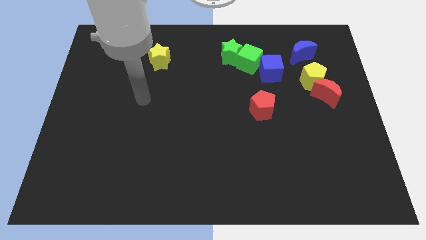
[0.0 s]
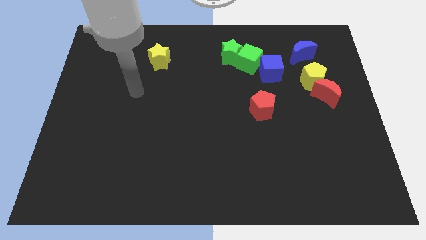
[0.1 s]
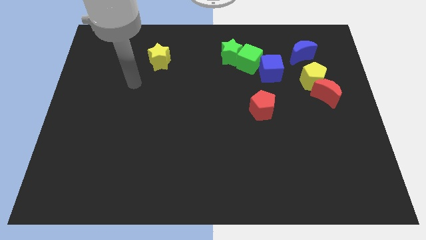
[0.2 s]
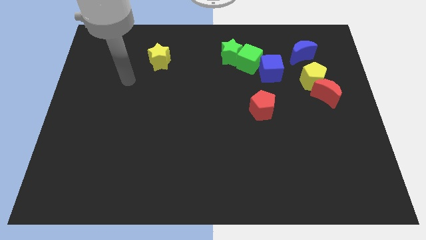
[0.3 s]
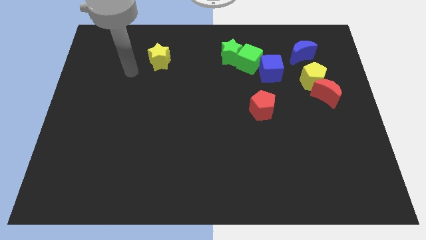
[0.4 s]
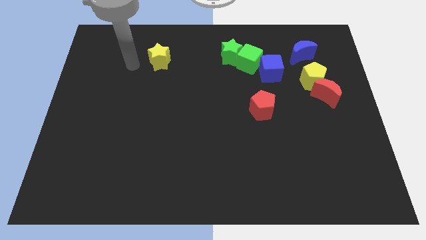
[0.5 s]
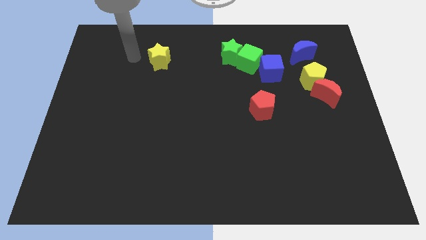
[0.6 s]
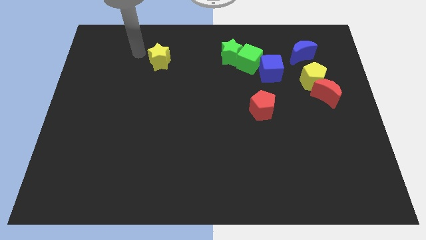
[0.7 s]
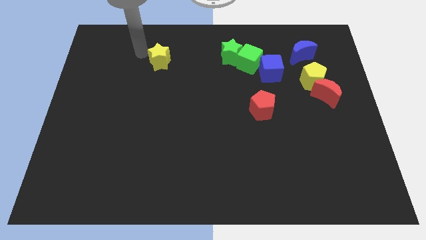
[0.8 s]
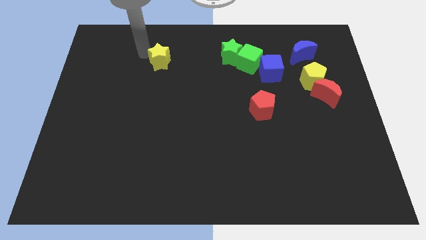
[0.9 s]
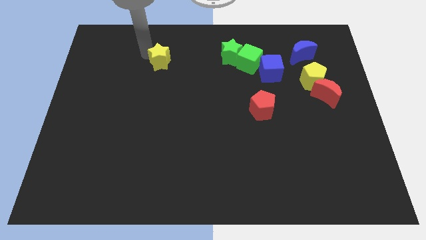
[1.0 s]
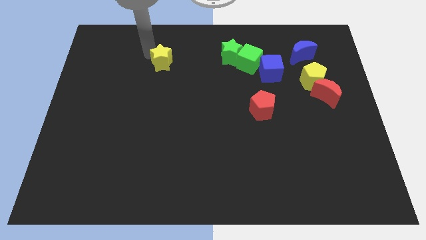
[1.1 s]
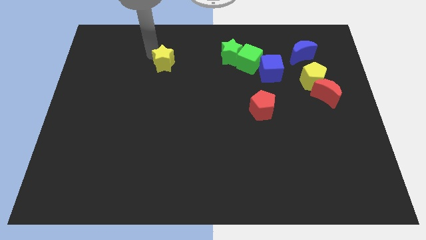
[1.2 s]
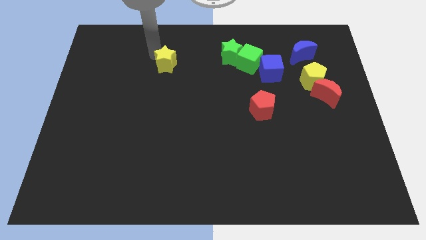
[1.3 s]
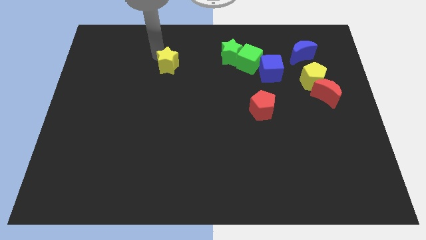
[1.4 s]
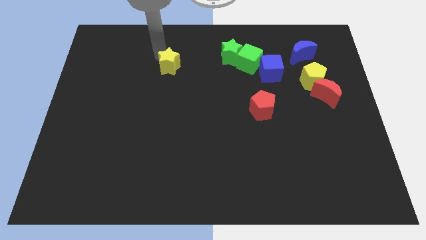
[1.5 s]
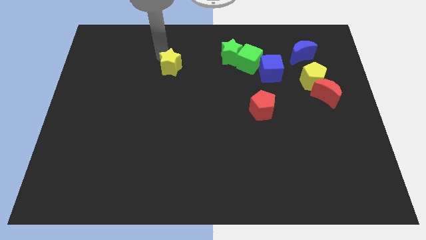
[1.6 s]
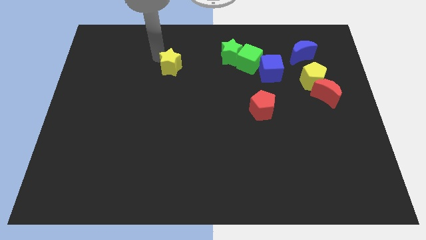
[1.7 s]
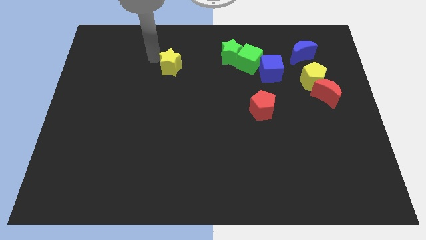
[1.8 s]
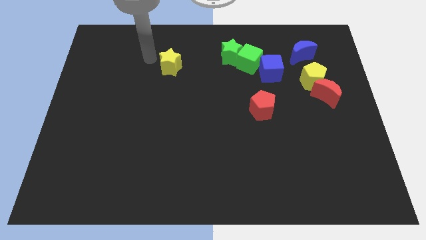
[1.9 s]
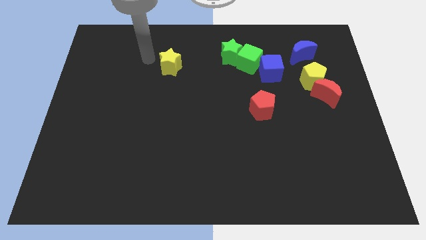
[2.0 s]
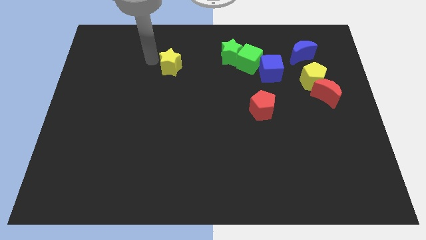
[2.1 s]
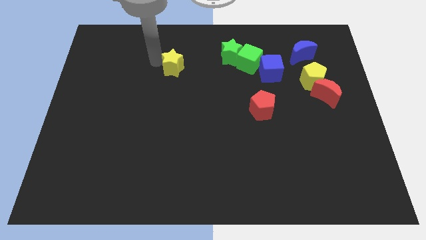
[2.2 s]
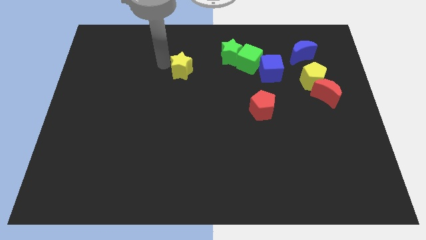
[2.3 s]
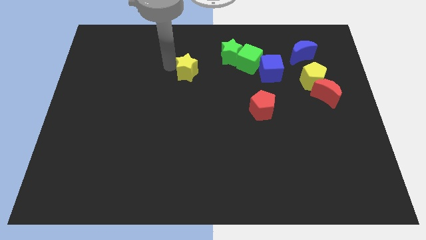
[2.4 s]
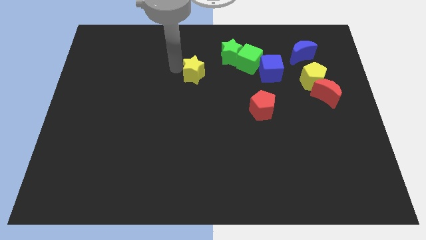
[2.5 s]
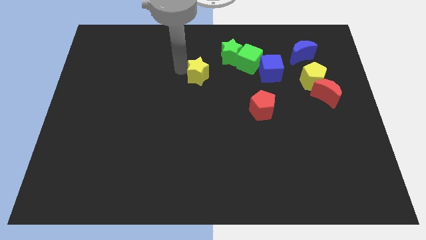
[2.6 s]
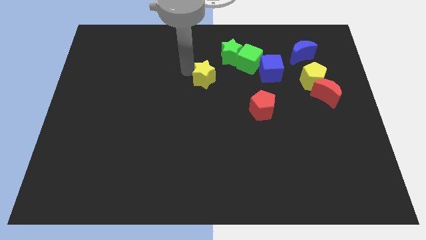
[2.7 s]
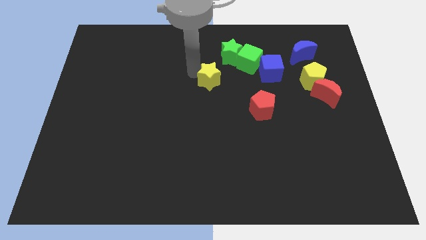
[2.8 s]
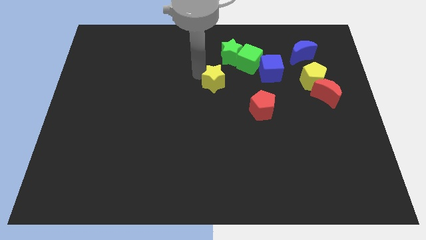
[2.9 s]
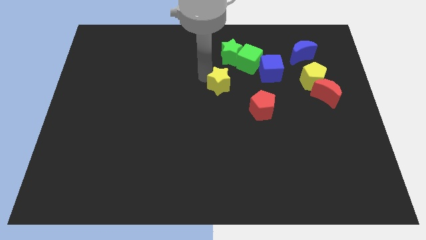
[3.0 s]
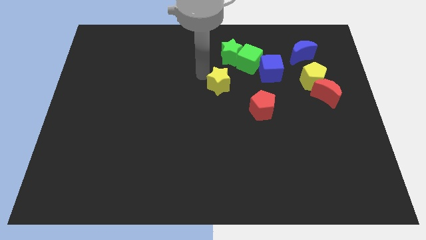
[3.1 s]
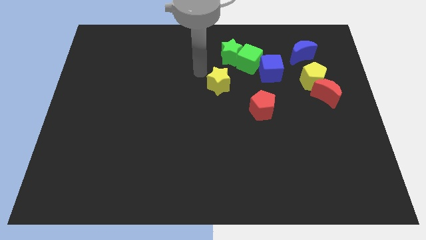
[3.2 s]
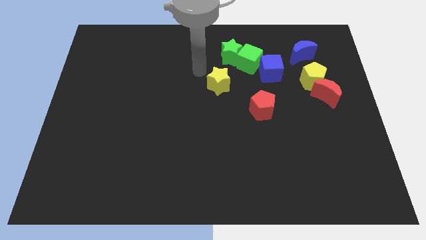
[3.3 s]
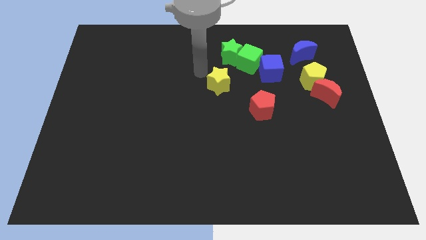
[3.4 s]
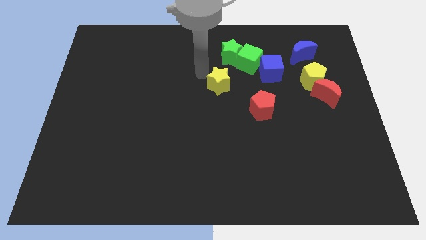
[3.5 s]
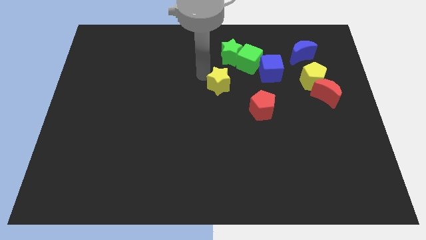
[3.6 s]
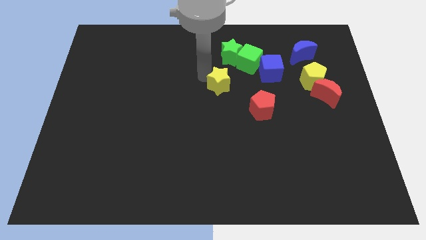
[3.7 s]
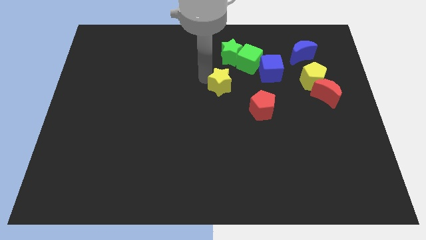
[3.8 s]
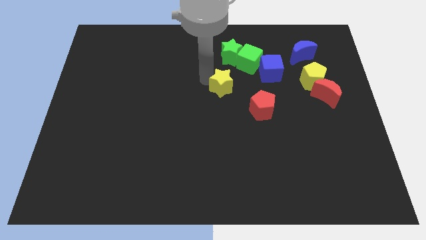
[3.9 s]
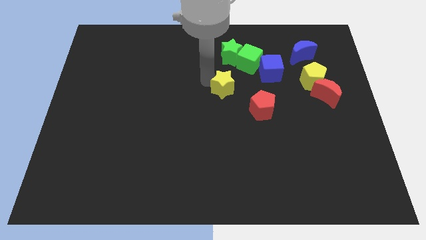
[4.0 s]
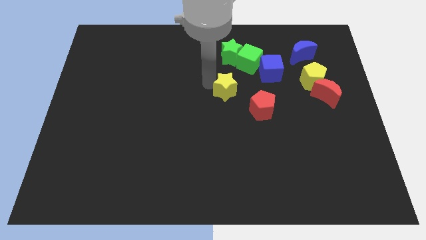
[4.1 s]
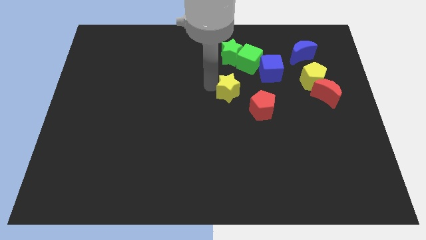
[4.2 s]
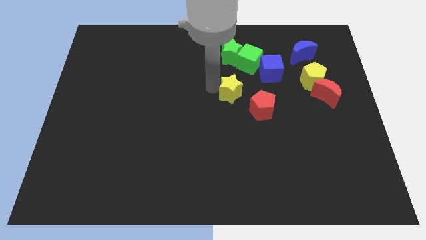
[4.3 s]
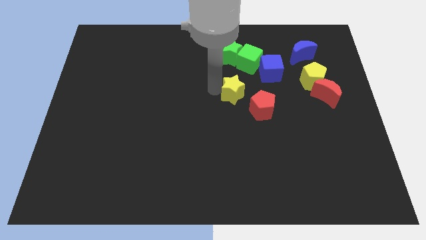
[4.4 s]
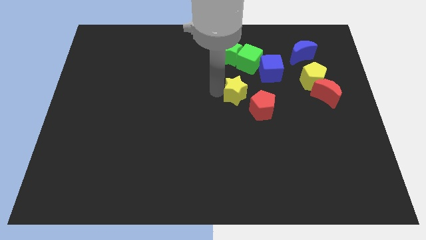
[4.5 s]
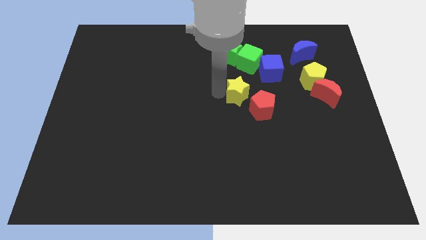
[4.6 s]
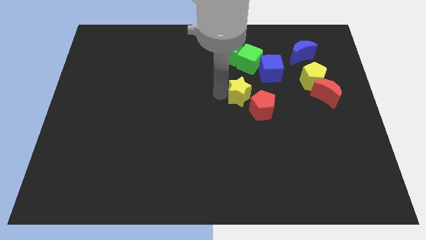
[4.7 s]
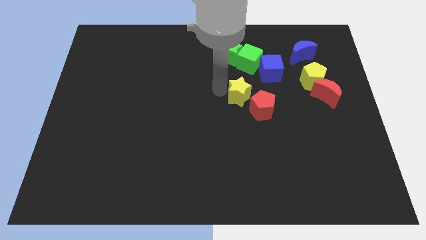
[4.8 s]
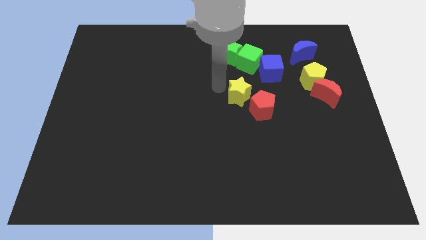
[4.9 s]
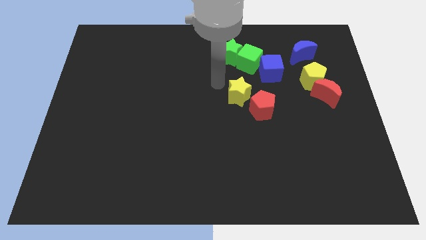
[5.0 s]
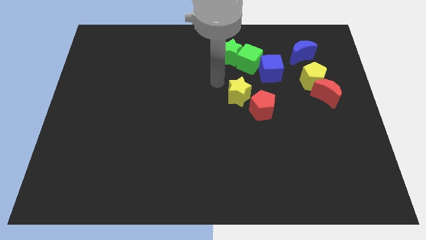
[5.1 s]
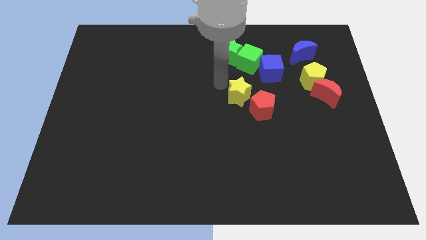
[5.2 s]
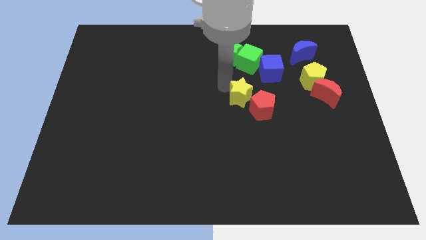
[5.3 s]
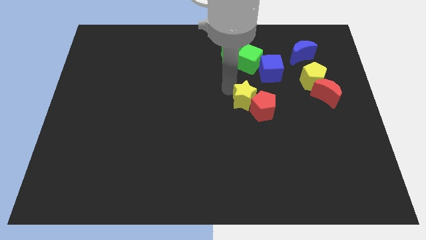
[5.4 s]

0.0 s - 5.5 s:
push the yellow star close to the red pentagon

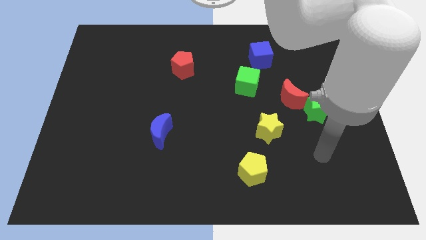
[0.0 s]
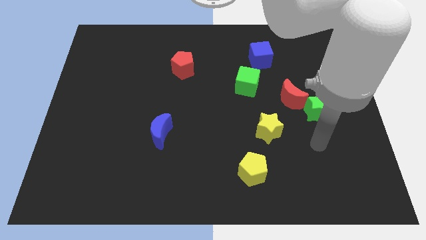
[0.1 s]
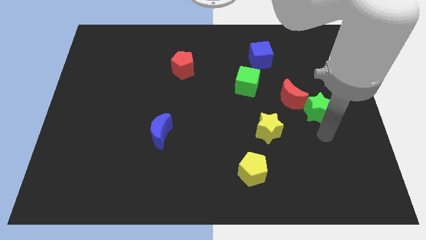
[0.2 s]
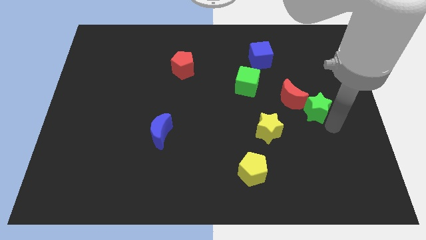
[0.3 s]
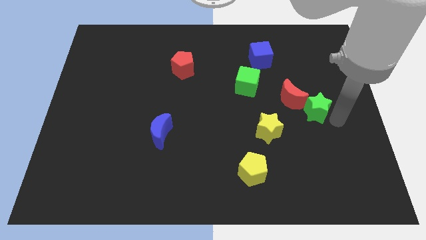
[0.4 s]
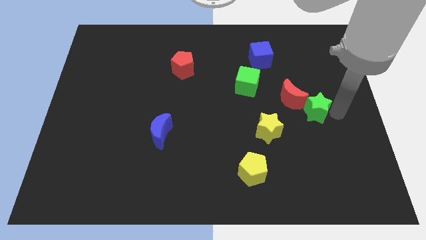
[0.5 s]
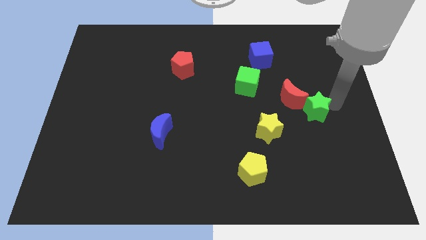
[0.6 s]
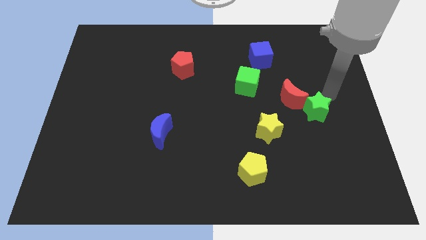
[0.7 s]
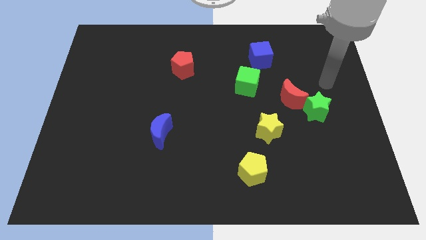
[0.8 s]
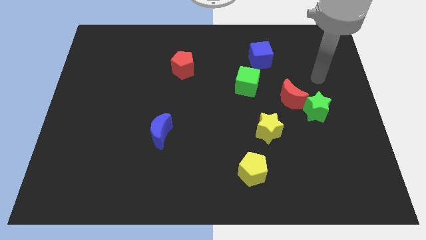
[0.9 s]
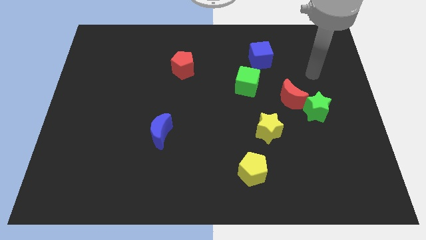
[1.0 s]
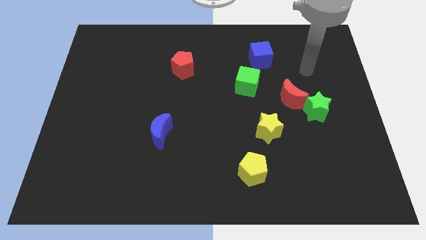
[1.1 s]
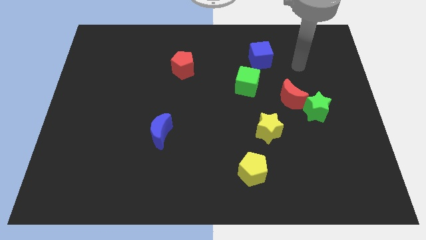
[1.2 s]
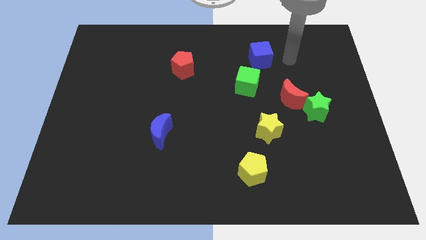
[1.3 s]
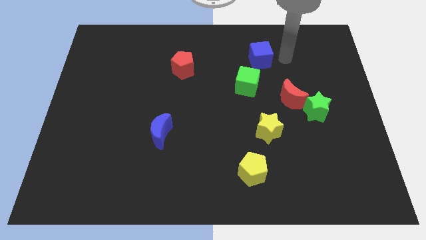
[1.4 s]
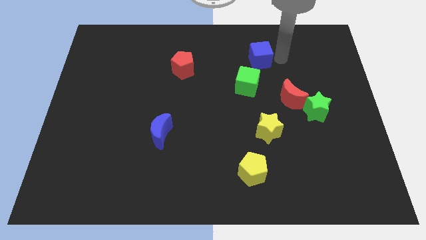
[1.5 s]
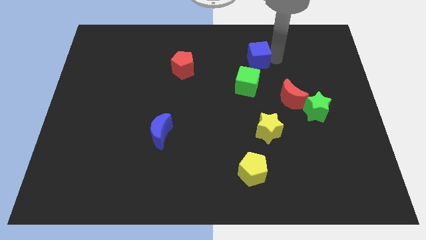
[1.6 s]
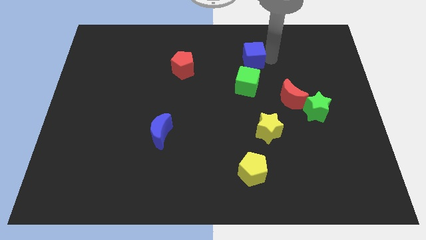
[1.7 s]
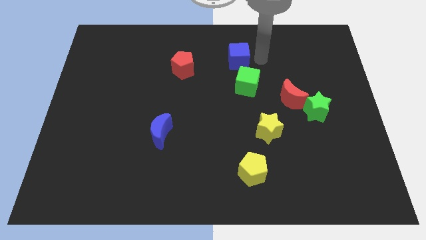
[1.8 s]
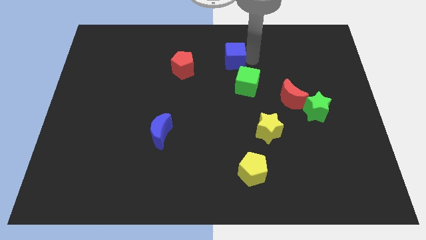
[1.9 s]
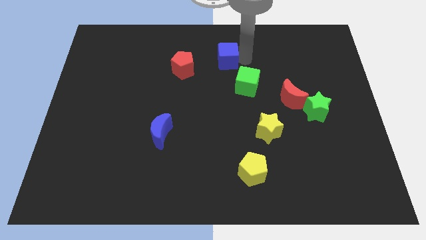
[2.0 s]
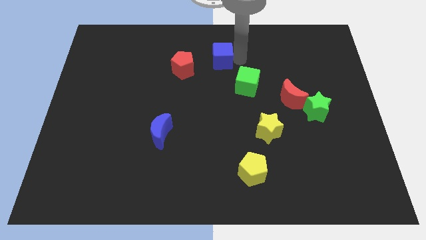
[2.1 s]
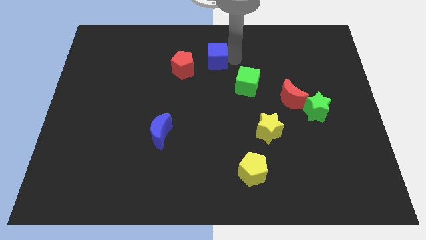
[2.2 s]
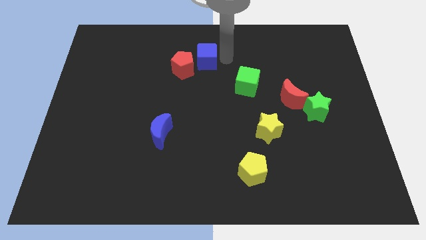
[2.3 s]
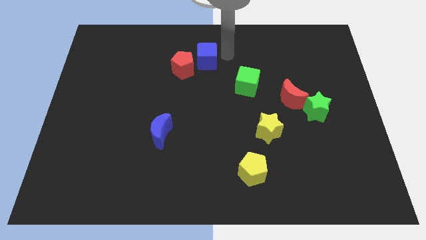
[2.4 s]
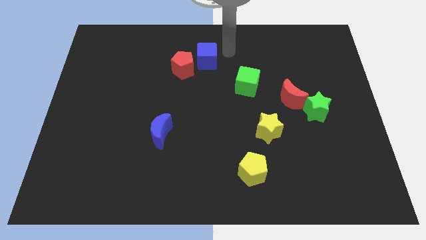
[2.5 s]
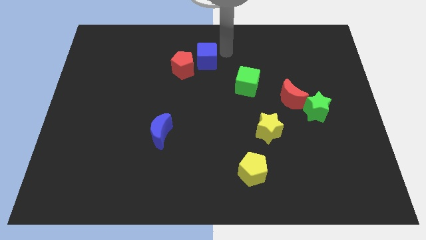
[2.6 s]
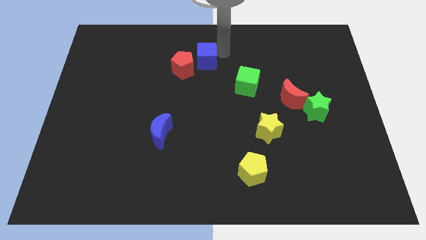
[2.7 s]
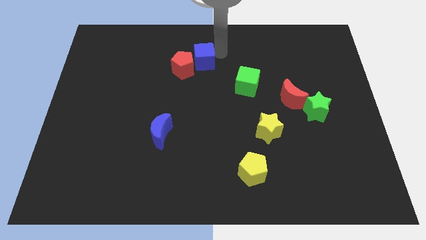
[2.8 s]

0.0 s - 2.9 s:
push the blue cube towards the red pentagon
